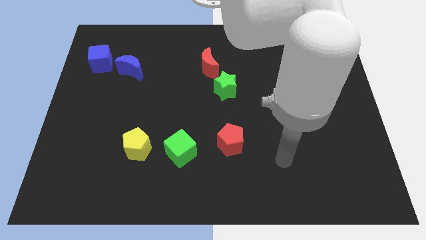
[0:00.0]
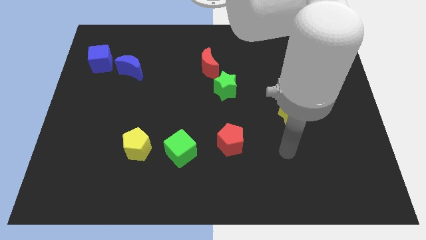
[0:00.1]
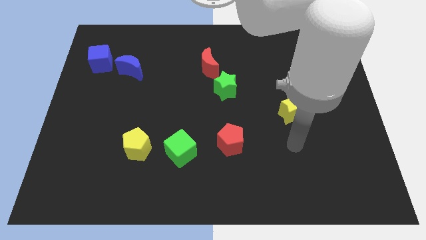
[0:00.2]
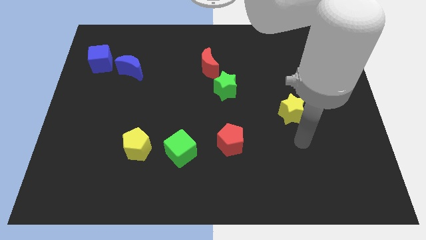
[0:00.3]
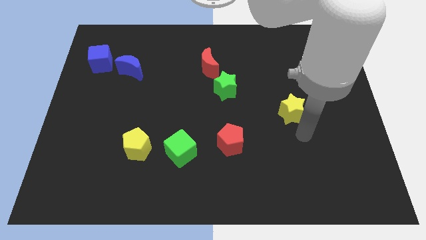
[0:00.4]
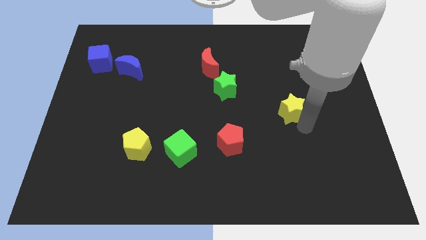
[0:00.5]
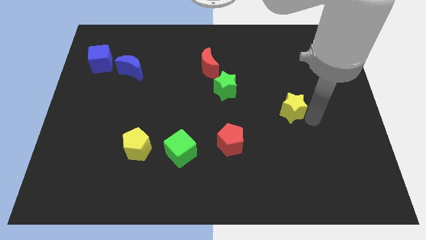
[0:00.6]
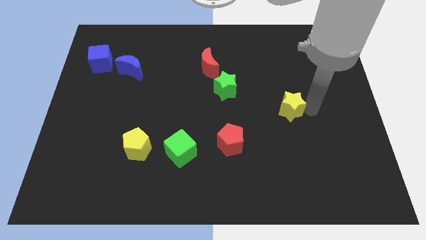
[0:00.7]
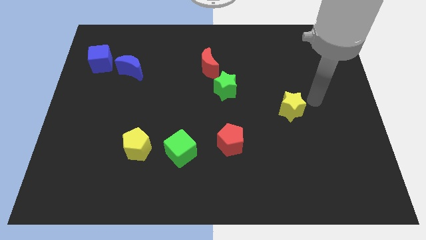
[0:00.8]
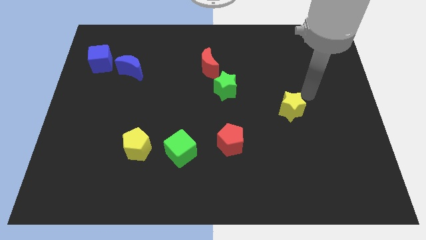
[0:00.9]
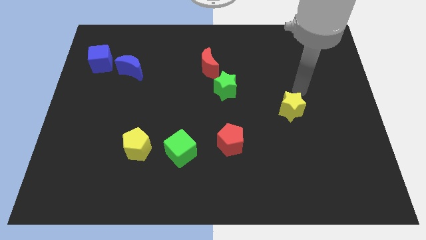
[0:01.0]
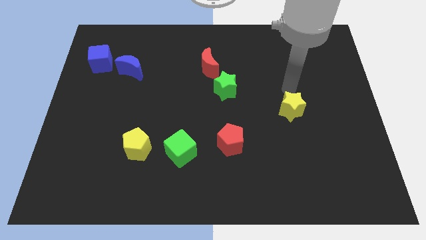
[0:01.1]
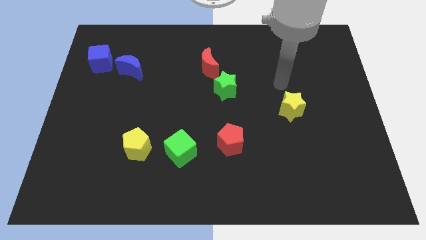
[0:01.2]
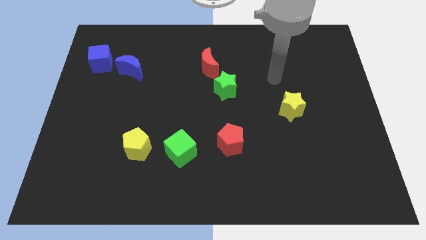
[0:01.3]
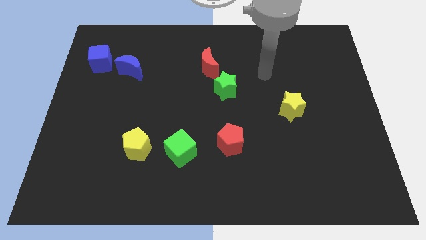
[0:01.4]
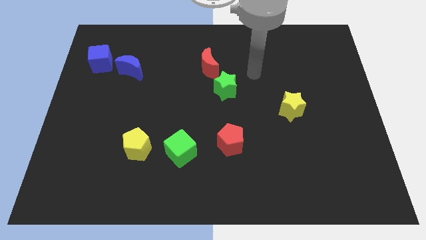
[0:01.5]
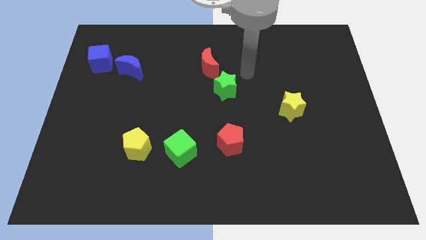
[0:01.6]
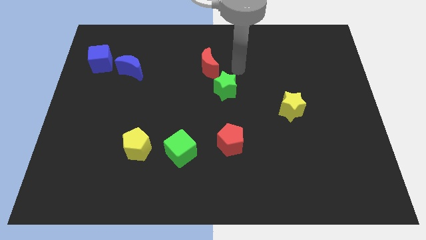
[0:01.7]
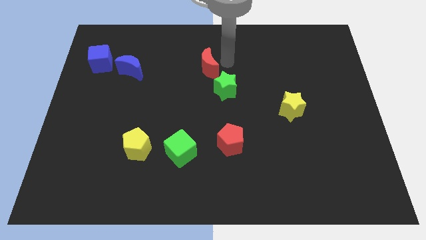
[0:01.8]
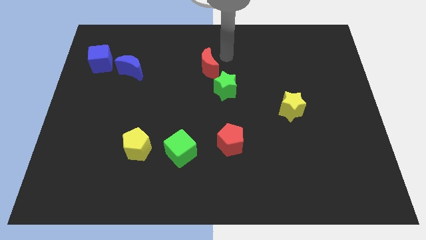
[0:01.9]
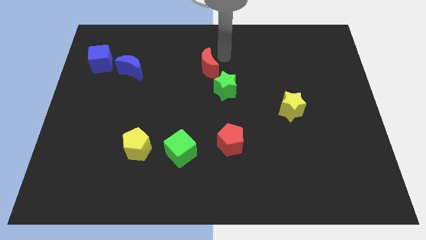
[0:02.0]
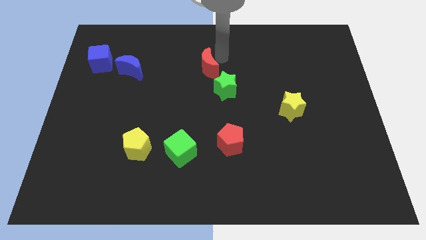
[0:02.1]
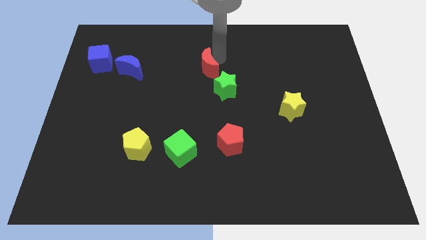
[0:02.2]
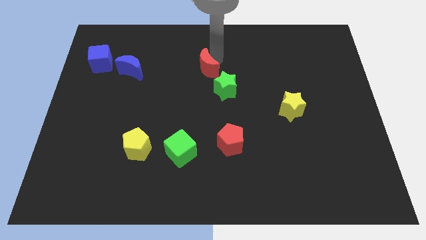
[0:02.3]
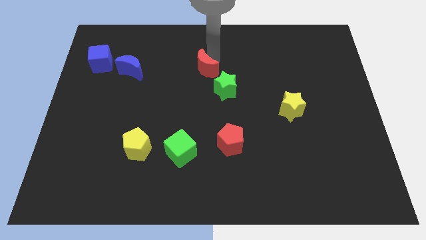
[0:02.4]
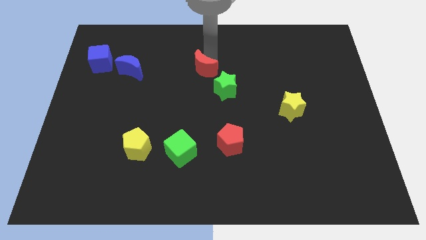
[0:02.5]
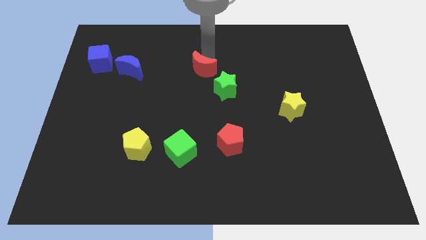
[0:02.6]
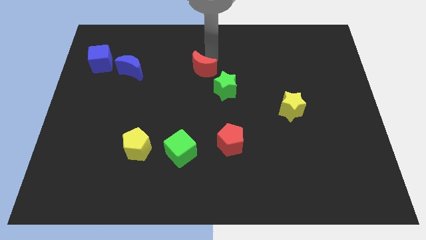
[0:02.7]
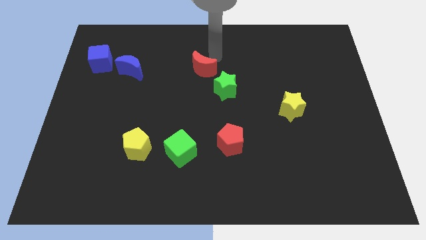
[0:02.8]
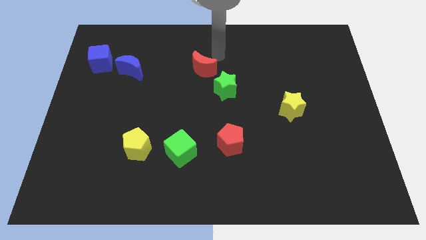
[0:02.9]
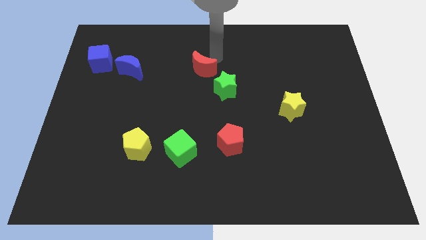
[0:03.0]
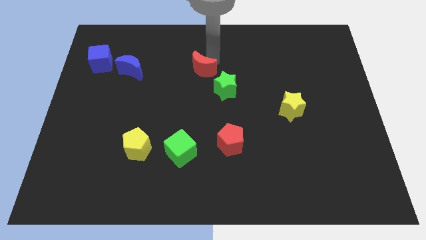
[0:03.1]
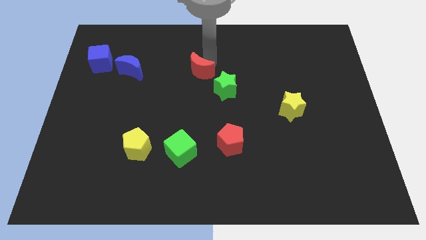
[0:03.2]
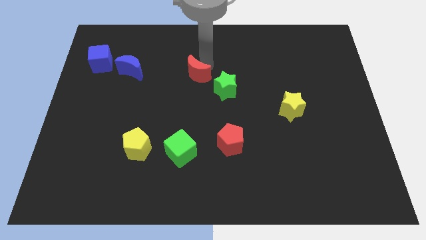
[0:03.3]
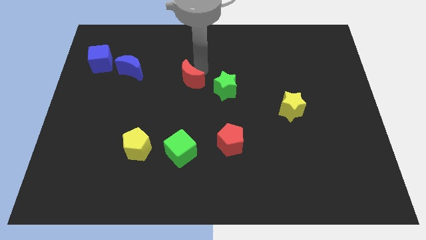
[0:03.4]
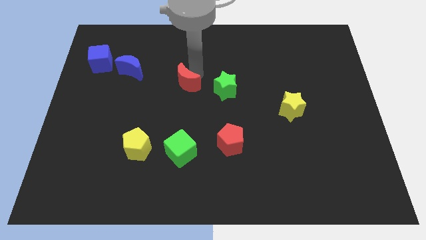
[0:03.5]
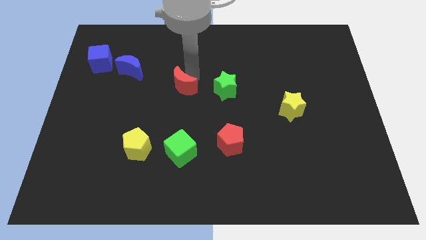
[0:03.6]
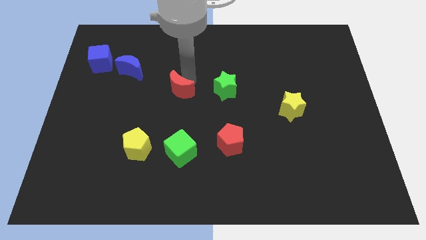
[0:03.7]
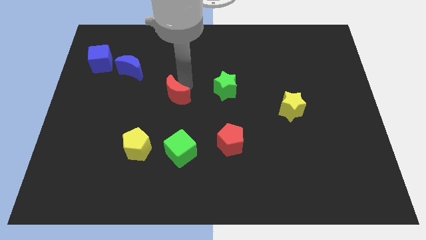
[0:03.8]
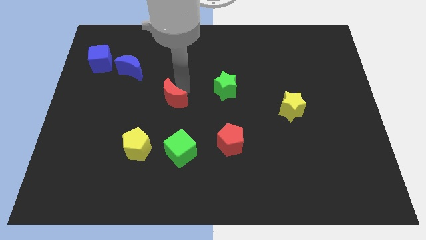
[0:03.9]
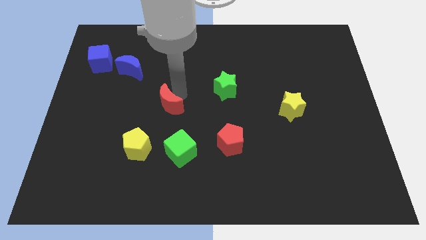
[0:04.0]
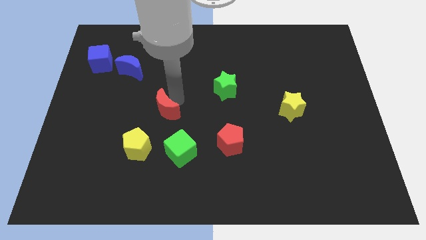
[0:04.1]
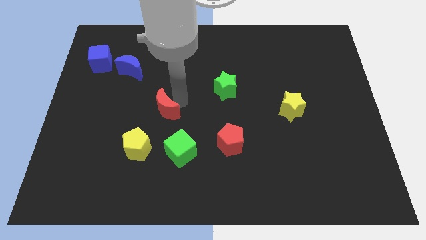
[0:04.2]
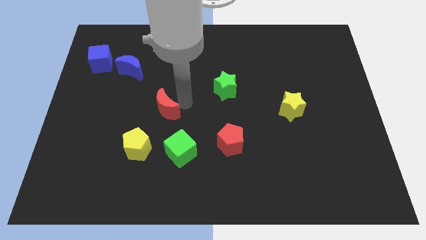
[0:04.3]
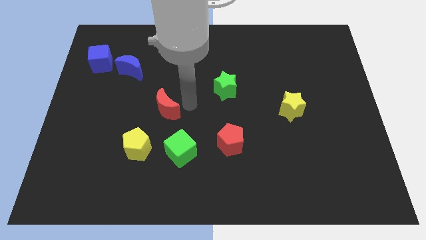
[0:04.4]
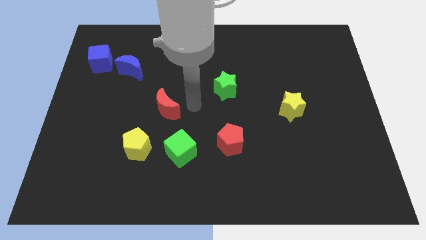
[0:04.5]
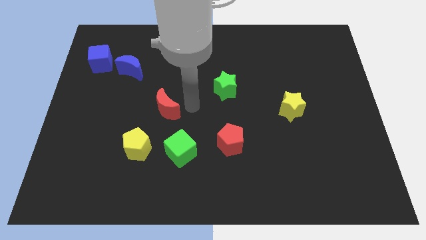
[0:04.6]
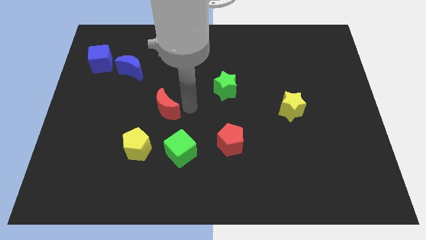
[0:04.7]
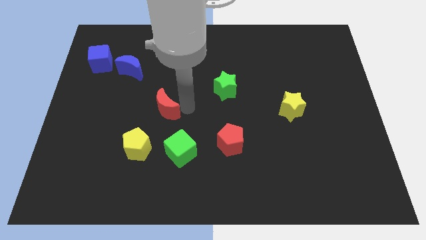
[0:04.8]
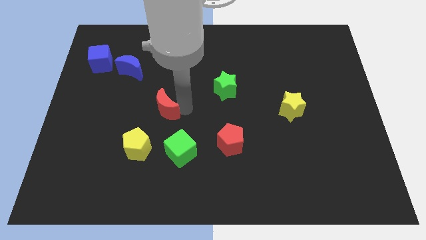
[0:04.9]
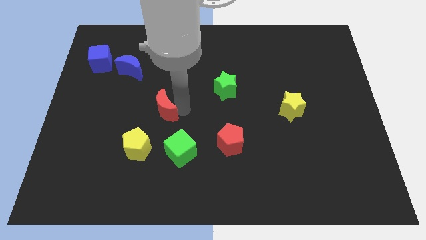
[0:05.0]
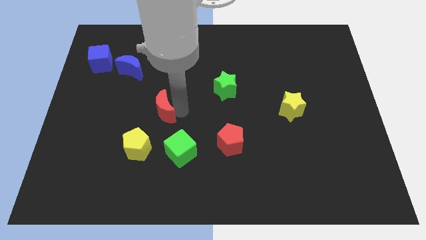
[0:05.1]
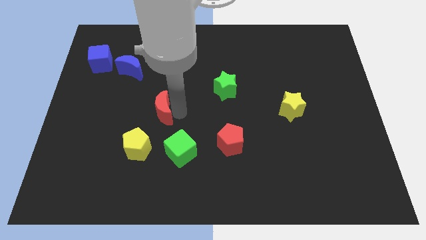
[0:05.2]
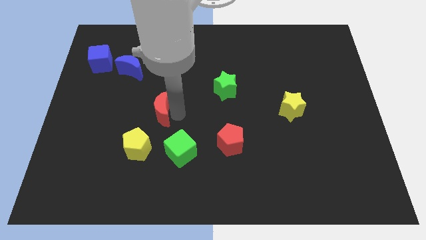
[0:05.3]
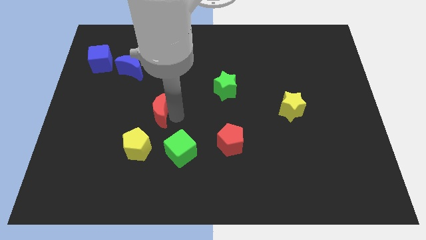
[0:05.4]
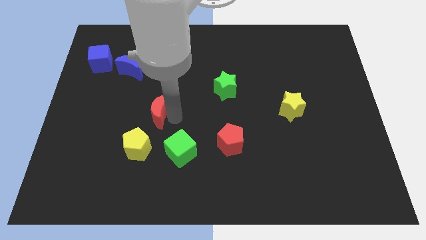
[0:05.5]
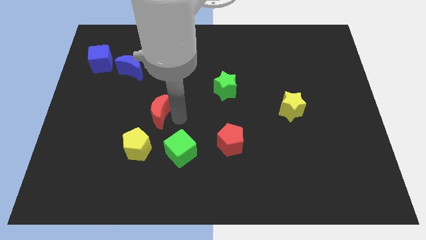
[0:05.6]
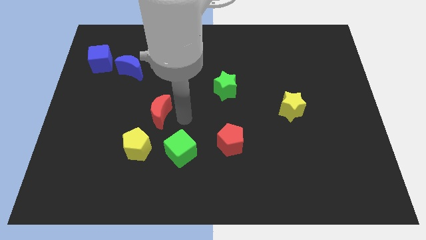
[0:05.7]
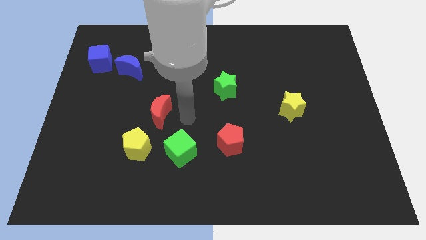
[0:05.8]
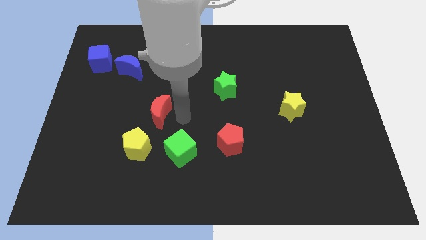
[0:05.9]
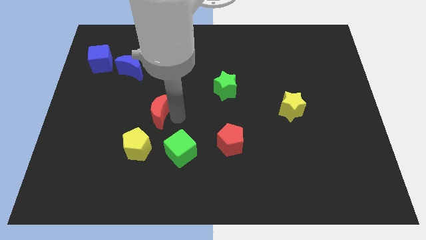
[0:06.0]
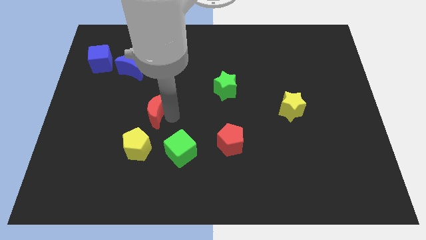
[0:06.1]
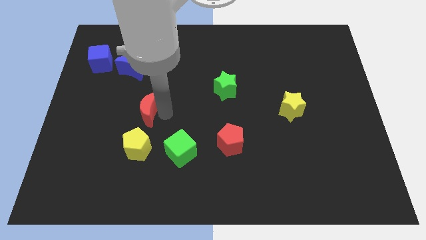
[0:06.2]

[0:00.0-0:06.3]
move the red moon downwards and left diagonally

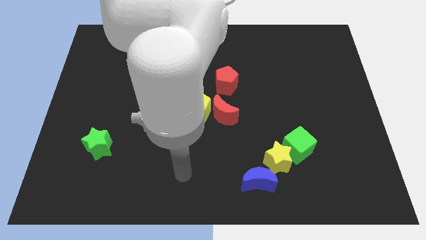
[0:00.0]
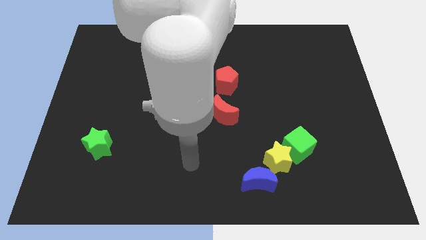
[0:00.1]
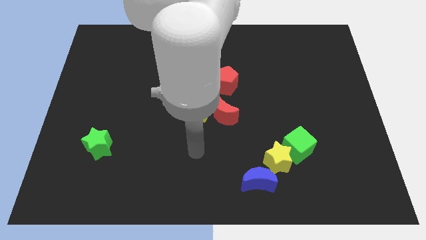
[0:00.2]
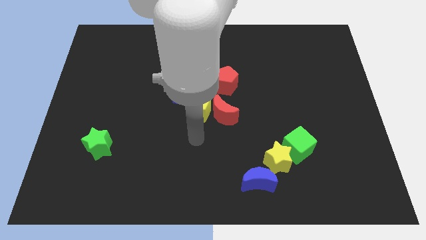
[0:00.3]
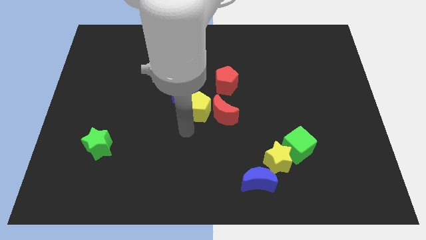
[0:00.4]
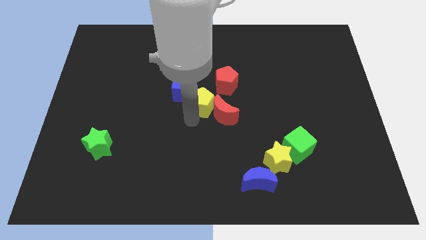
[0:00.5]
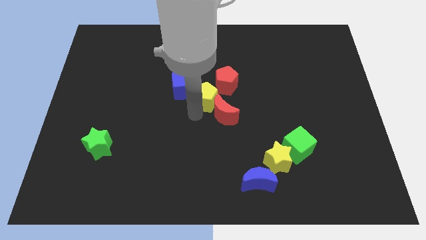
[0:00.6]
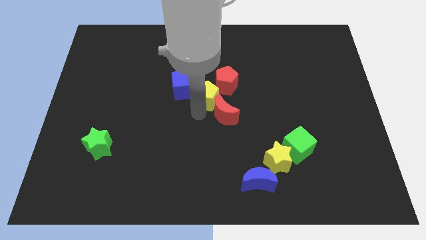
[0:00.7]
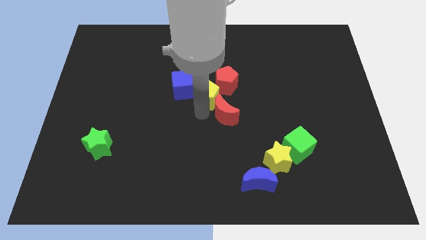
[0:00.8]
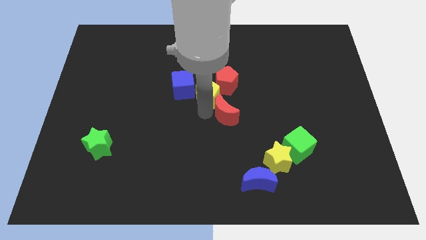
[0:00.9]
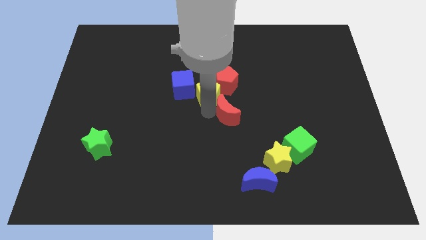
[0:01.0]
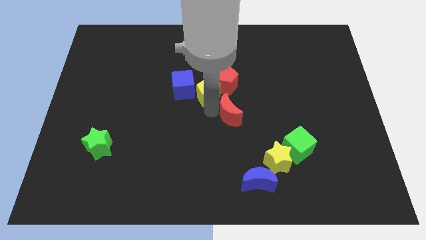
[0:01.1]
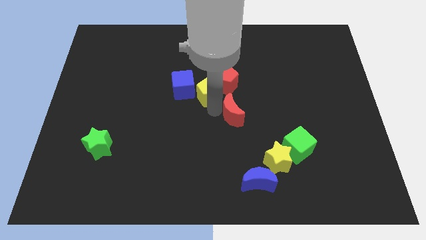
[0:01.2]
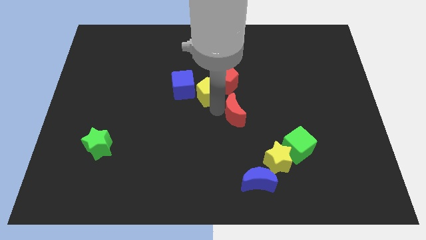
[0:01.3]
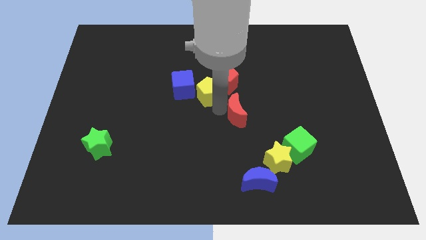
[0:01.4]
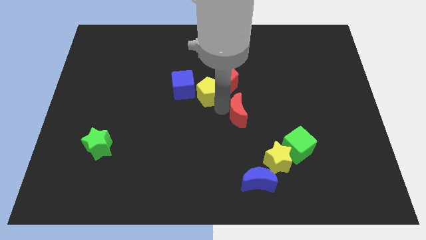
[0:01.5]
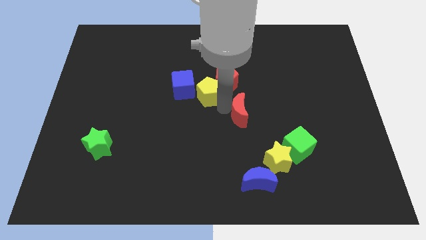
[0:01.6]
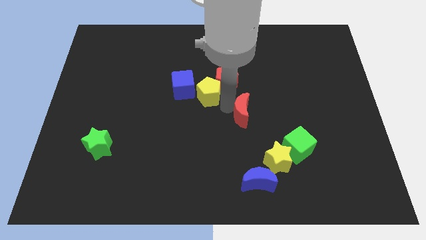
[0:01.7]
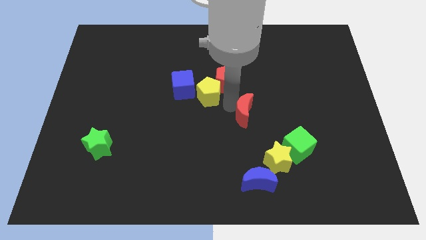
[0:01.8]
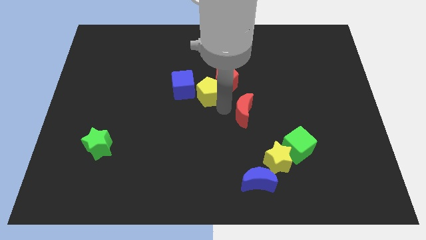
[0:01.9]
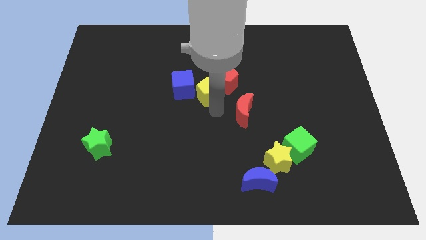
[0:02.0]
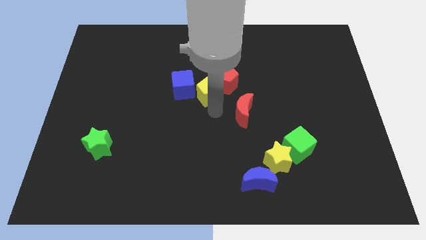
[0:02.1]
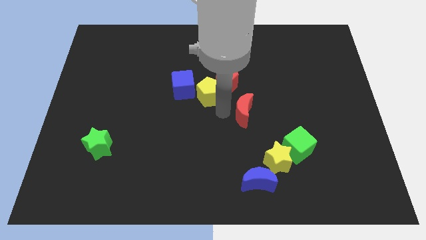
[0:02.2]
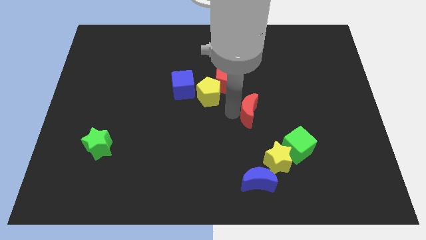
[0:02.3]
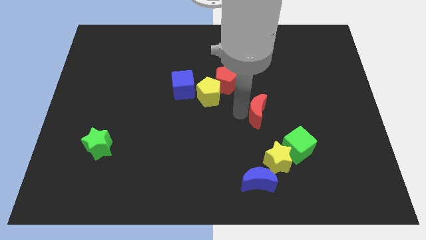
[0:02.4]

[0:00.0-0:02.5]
slightly push the red moon to the right
